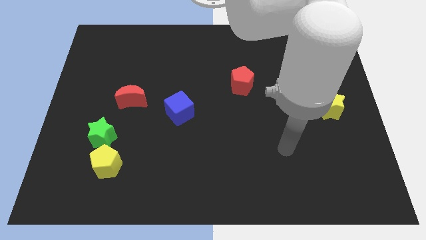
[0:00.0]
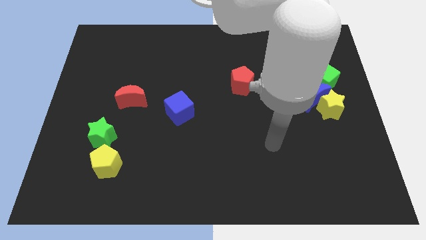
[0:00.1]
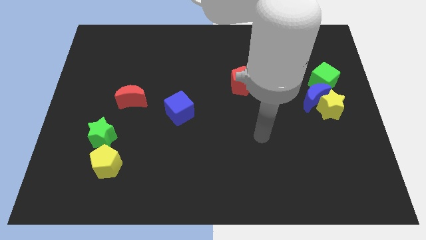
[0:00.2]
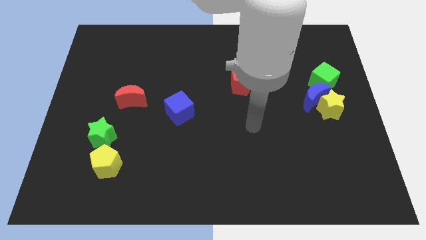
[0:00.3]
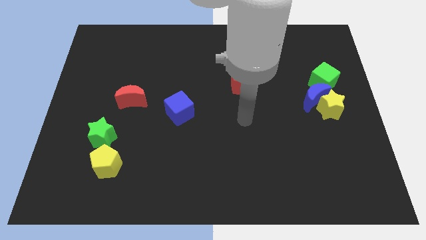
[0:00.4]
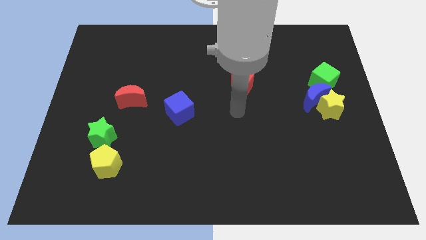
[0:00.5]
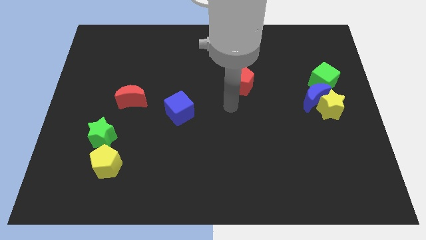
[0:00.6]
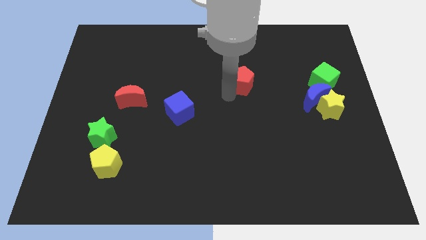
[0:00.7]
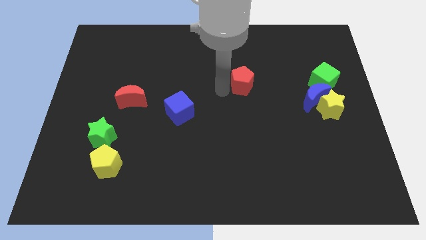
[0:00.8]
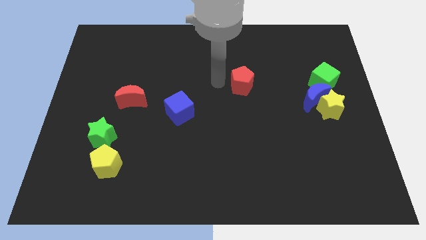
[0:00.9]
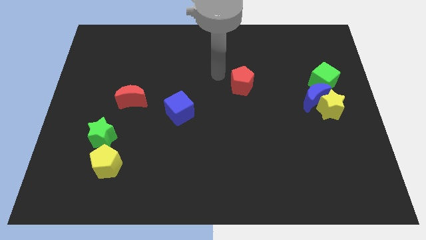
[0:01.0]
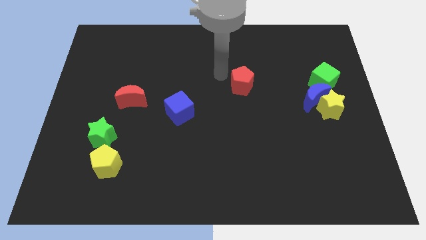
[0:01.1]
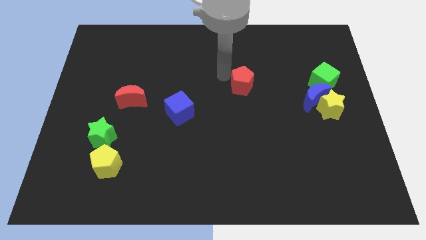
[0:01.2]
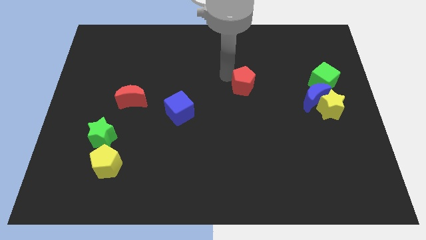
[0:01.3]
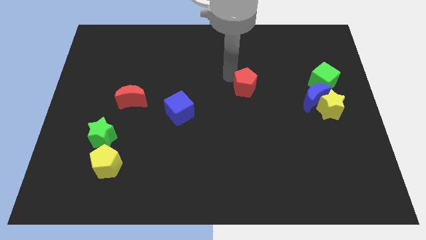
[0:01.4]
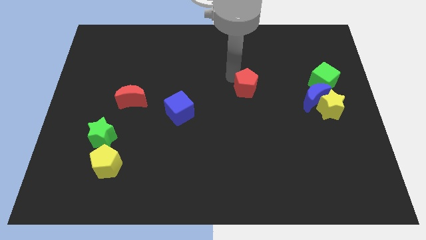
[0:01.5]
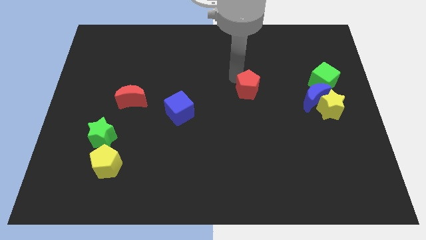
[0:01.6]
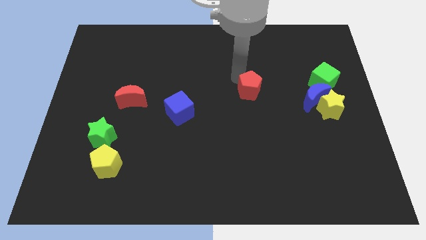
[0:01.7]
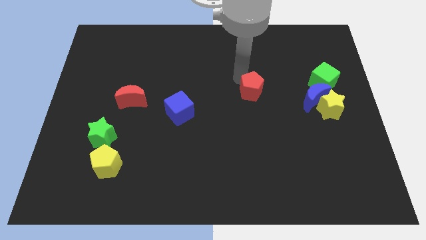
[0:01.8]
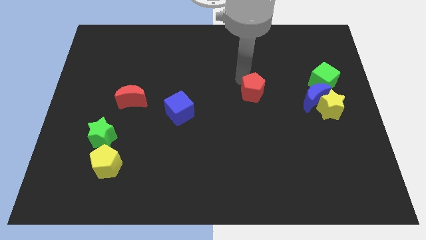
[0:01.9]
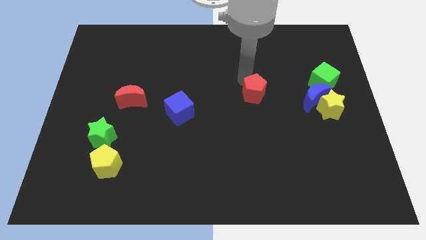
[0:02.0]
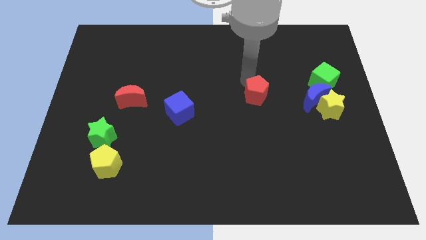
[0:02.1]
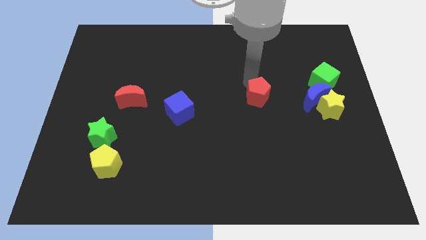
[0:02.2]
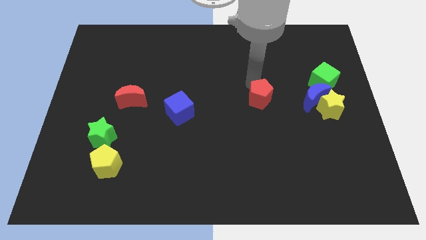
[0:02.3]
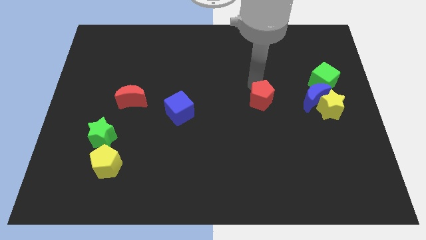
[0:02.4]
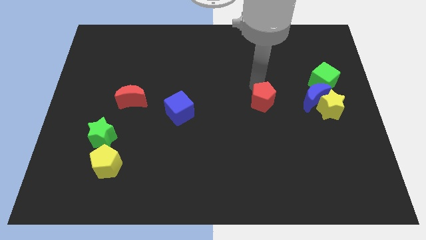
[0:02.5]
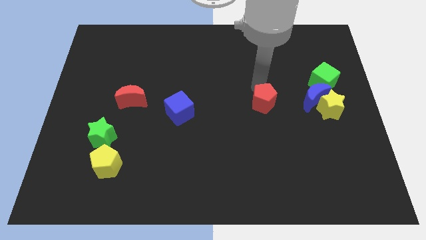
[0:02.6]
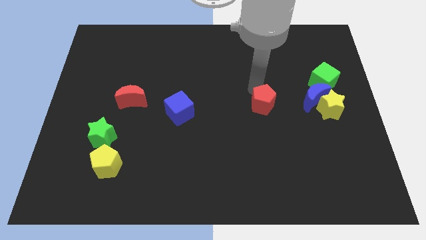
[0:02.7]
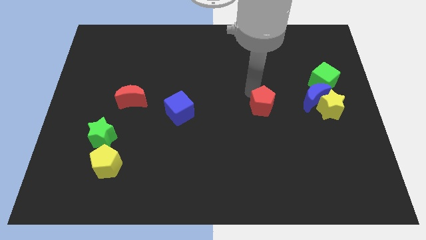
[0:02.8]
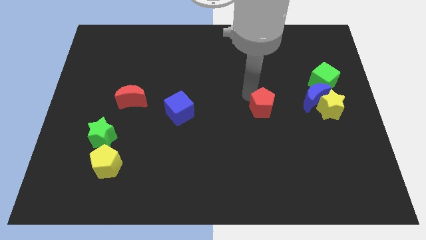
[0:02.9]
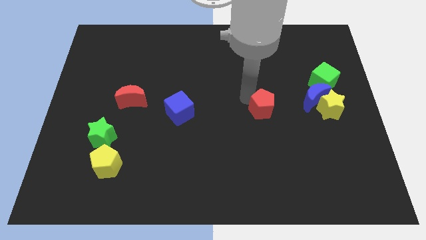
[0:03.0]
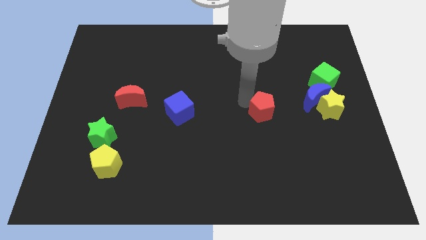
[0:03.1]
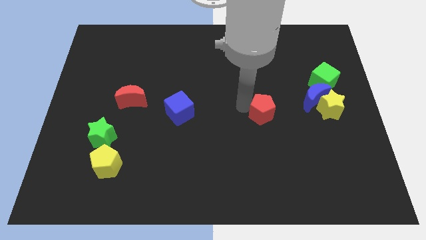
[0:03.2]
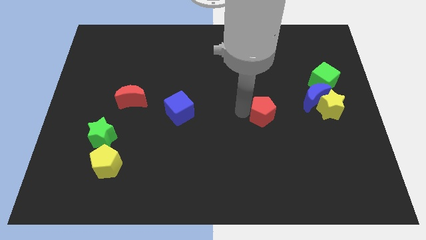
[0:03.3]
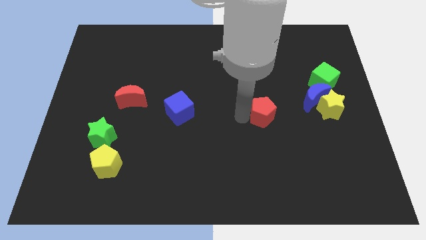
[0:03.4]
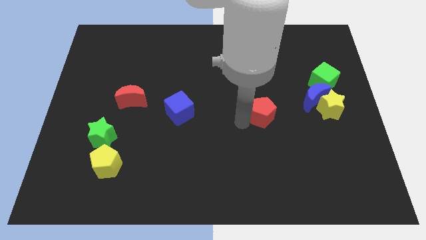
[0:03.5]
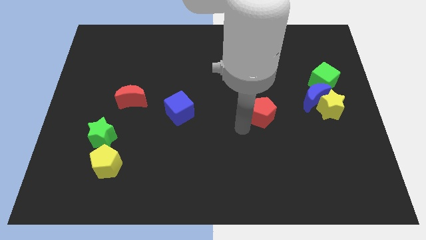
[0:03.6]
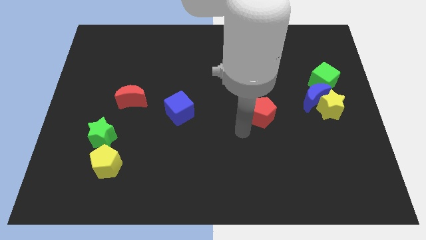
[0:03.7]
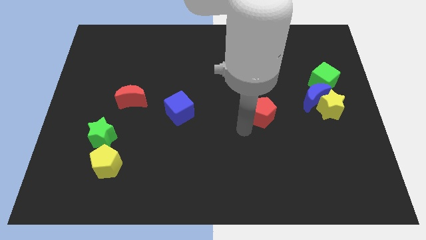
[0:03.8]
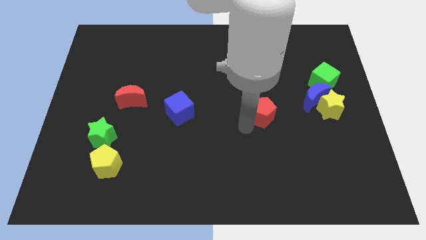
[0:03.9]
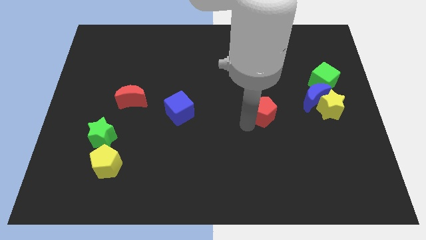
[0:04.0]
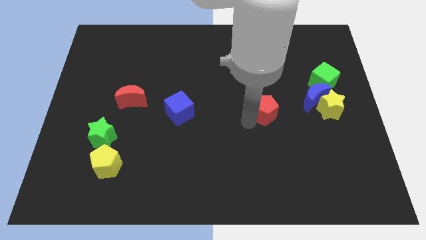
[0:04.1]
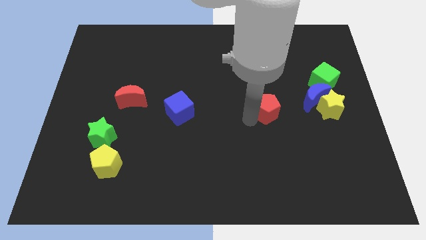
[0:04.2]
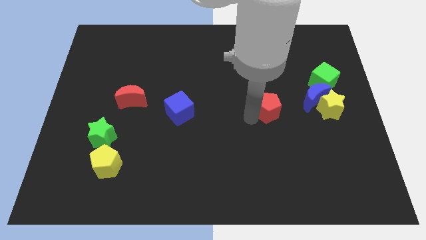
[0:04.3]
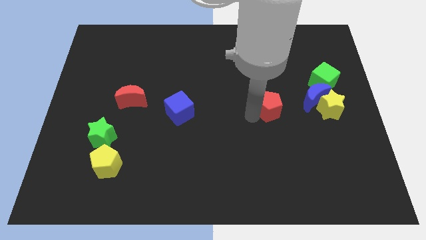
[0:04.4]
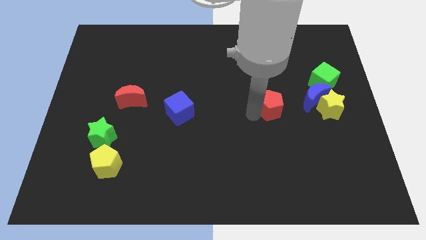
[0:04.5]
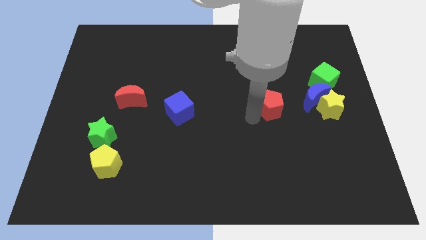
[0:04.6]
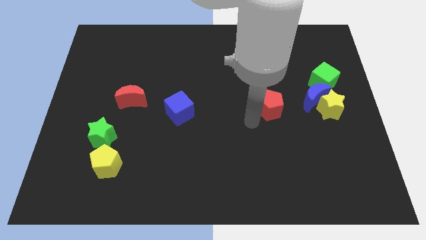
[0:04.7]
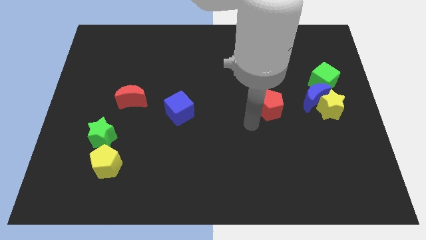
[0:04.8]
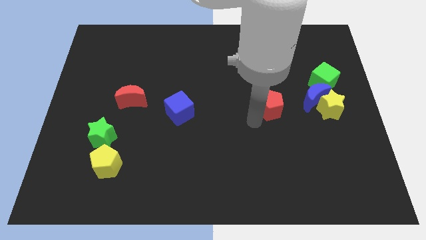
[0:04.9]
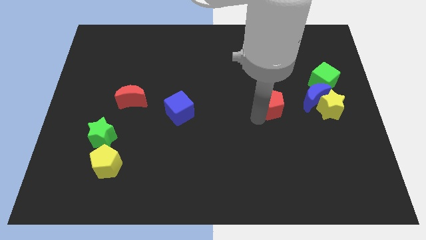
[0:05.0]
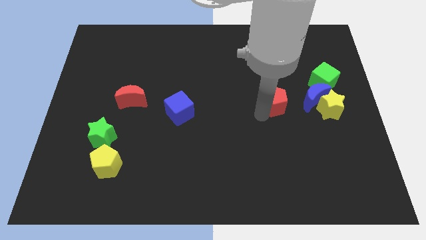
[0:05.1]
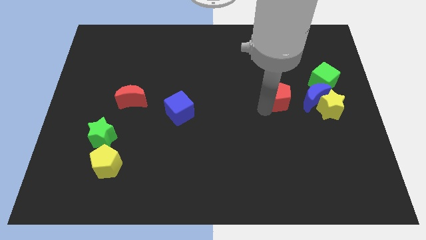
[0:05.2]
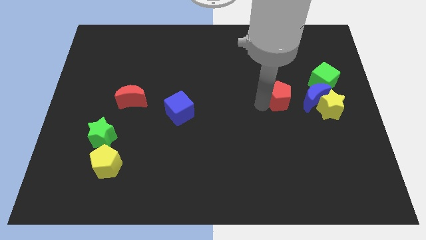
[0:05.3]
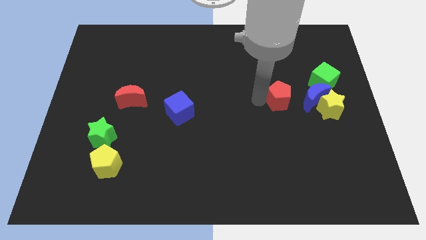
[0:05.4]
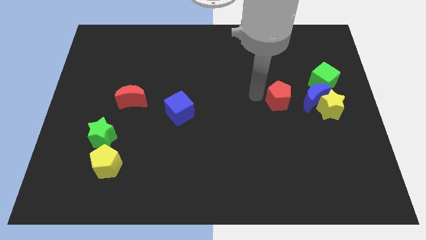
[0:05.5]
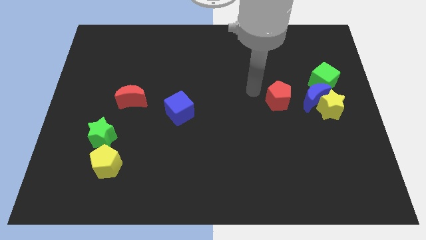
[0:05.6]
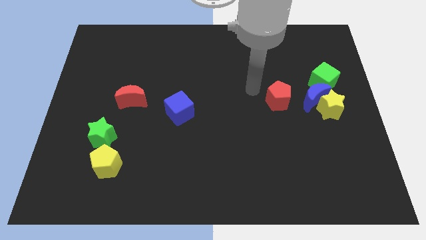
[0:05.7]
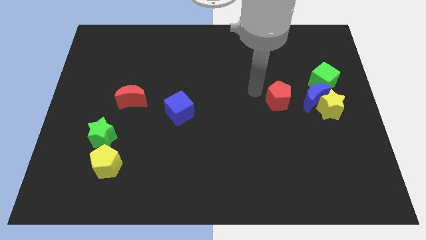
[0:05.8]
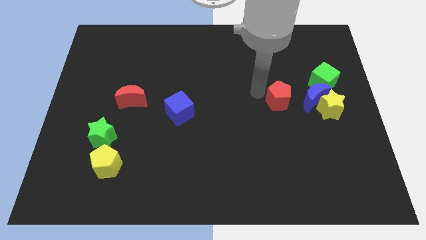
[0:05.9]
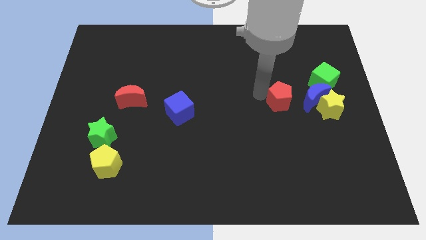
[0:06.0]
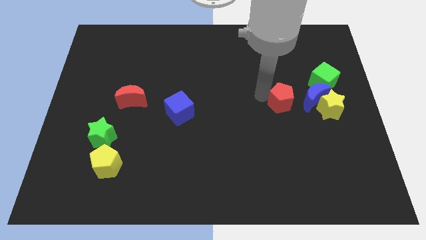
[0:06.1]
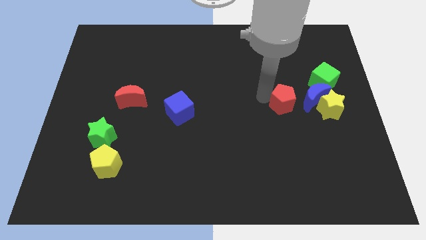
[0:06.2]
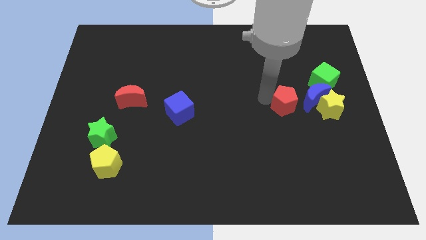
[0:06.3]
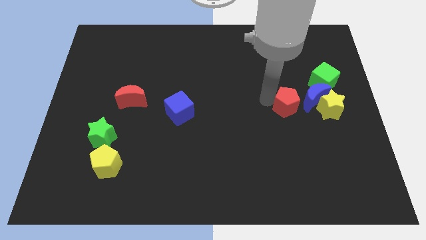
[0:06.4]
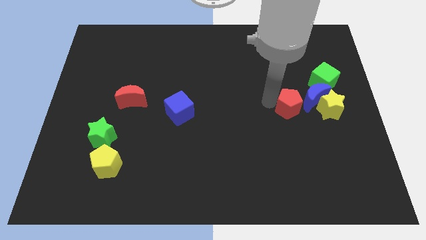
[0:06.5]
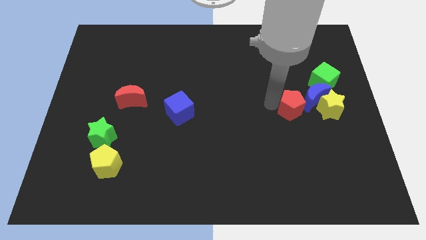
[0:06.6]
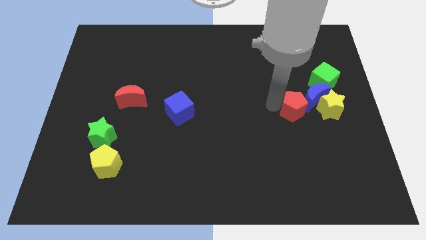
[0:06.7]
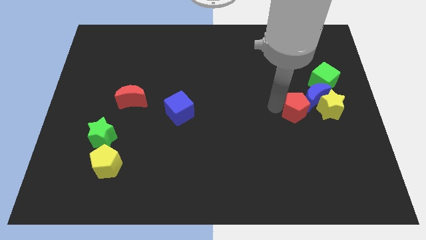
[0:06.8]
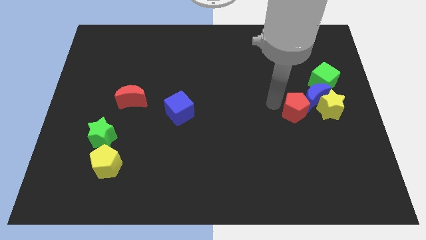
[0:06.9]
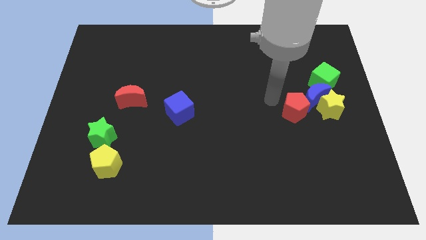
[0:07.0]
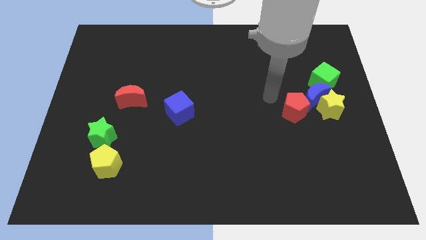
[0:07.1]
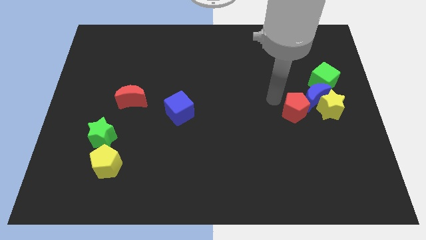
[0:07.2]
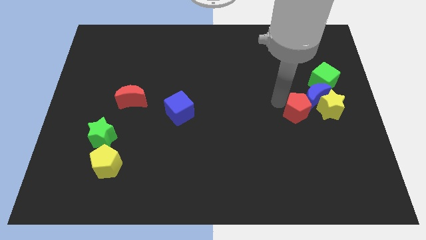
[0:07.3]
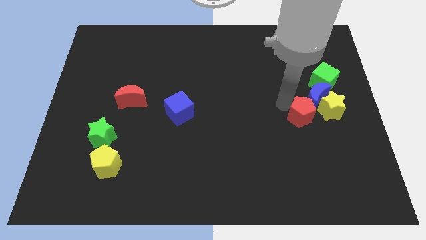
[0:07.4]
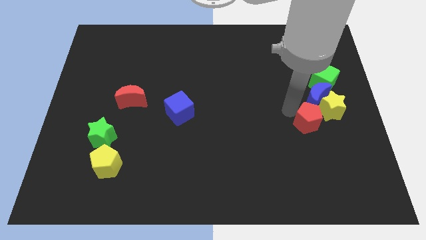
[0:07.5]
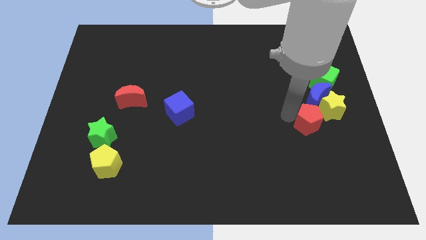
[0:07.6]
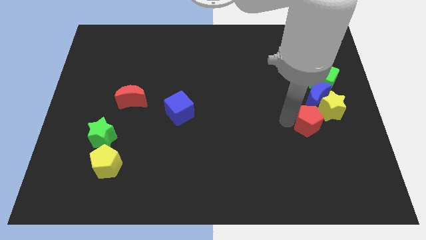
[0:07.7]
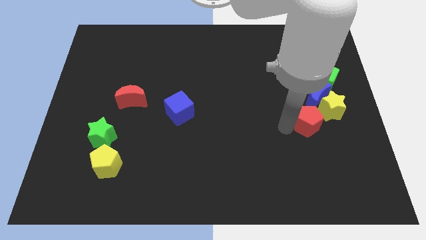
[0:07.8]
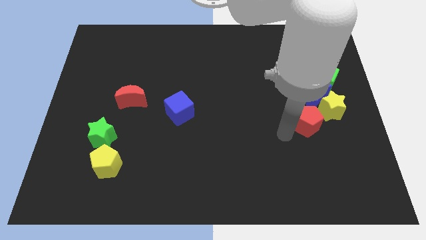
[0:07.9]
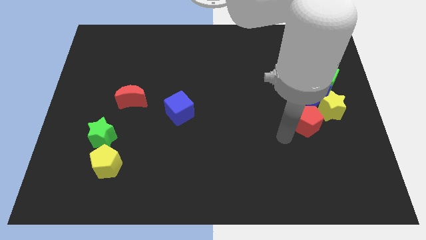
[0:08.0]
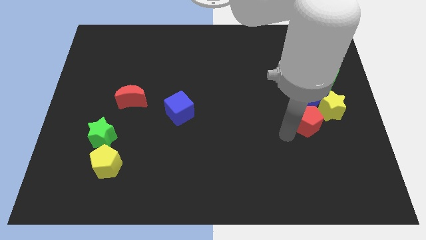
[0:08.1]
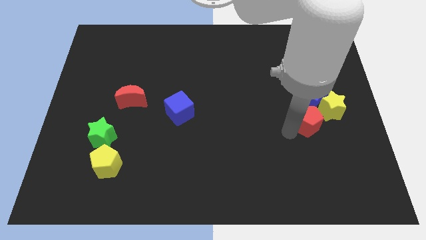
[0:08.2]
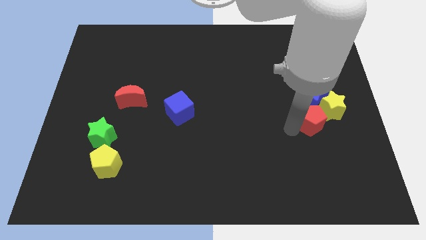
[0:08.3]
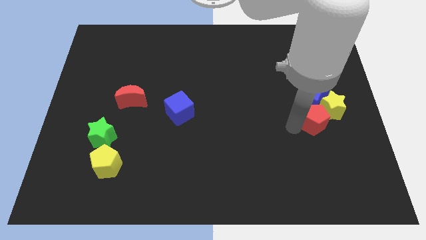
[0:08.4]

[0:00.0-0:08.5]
move the red pentagon close to the yellow star
